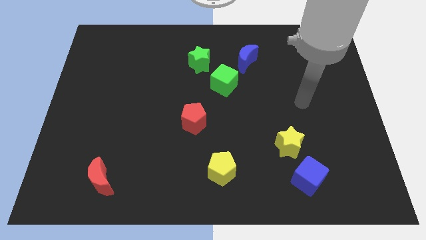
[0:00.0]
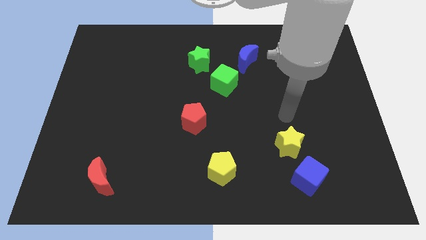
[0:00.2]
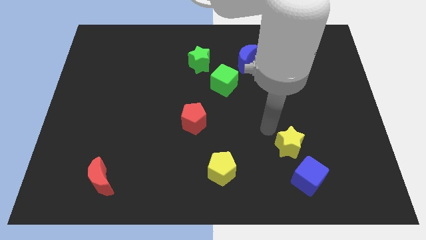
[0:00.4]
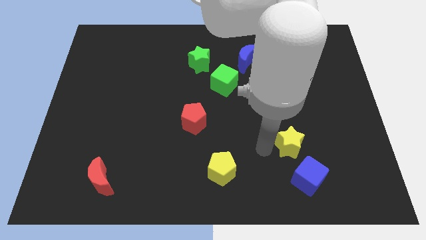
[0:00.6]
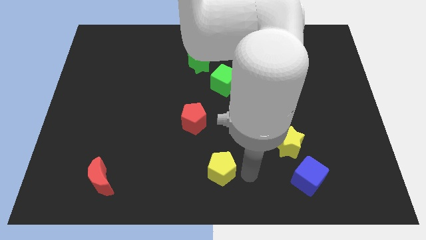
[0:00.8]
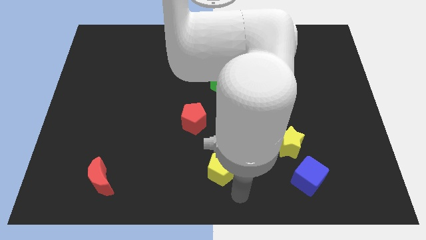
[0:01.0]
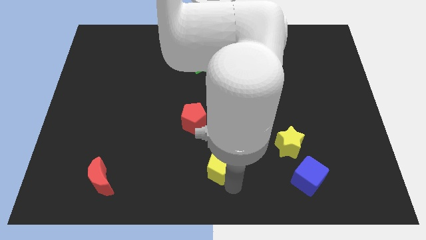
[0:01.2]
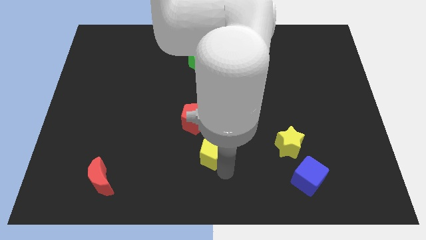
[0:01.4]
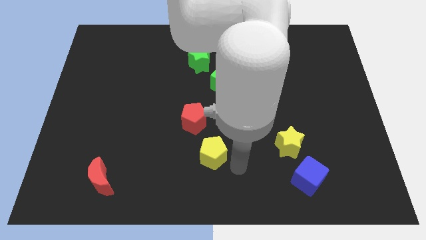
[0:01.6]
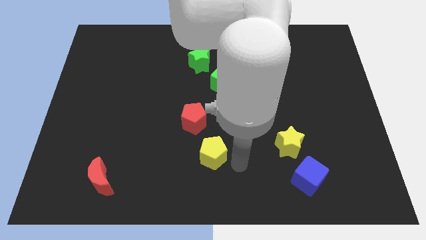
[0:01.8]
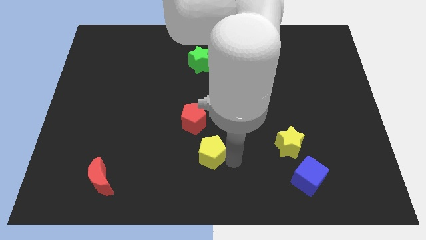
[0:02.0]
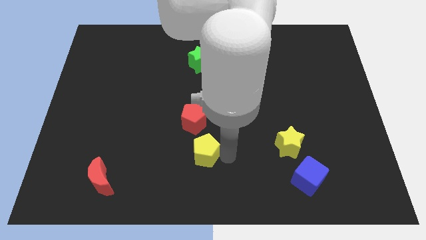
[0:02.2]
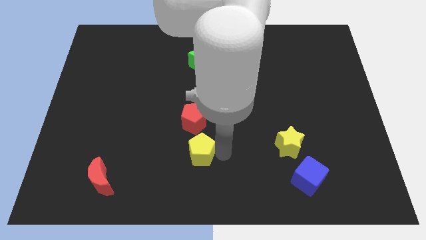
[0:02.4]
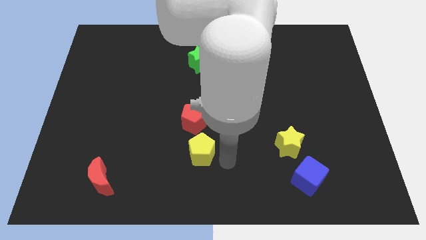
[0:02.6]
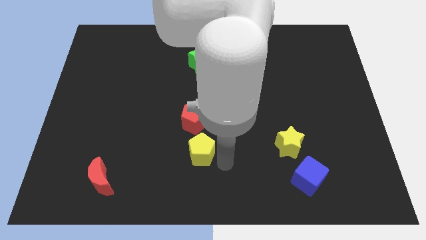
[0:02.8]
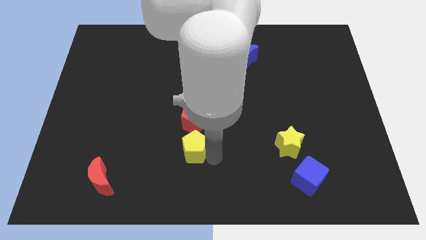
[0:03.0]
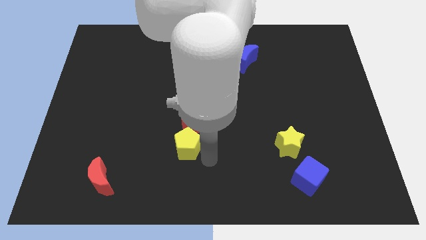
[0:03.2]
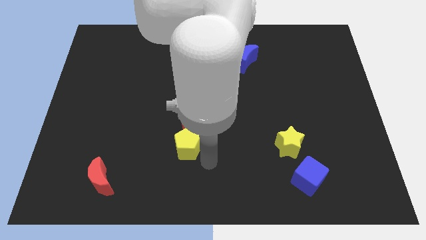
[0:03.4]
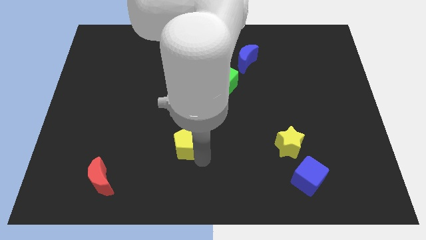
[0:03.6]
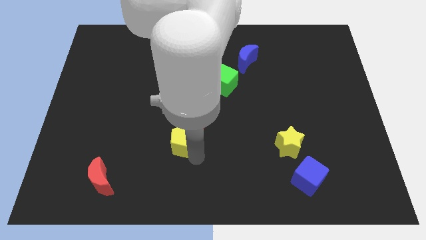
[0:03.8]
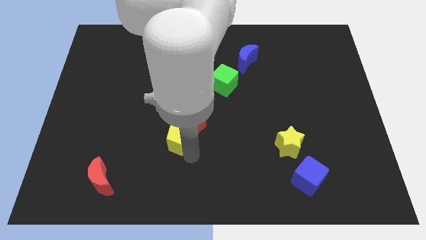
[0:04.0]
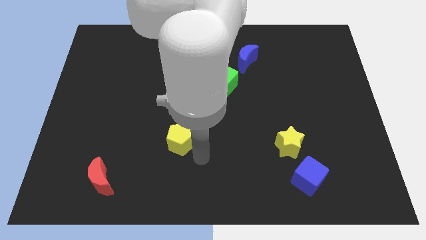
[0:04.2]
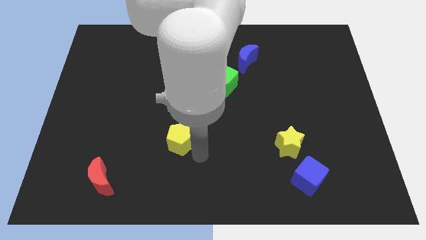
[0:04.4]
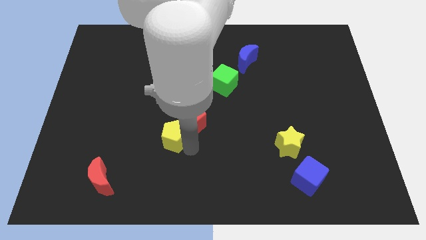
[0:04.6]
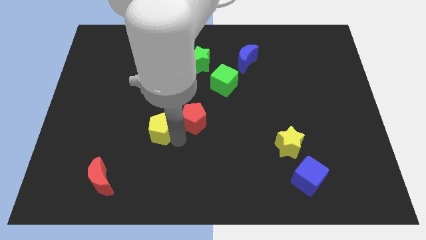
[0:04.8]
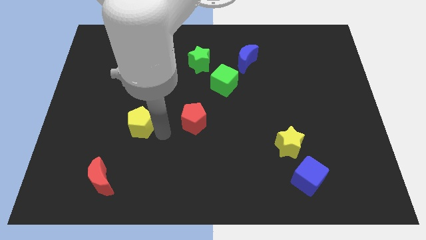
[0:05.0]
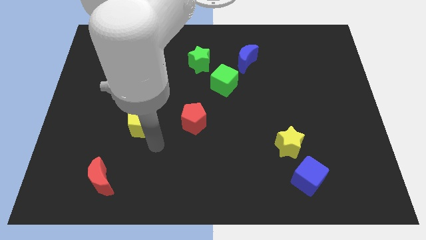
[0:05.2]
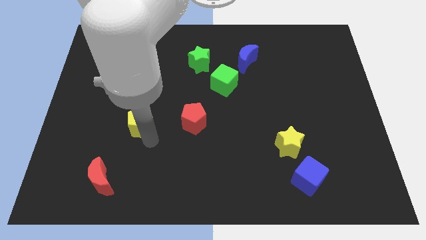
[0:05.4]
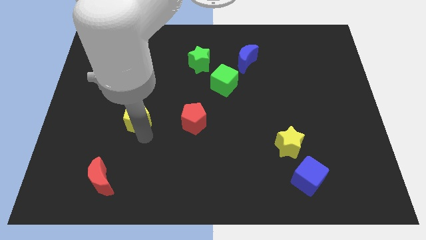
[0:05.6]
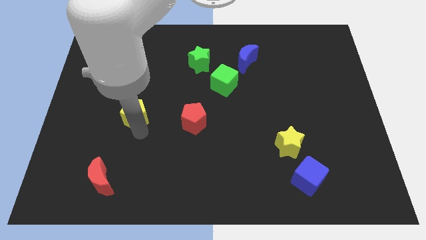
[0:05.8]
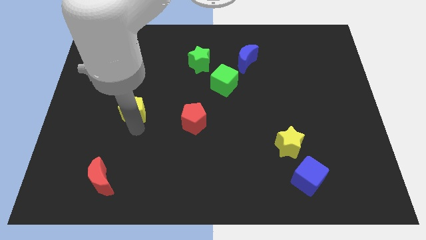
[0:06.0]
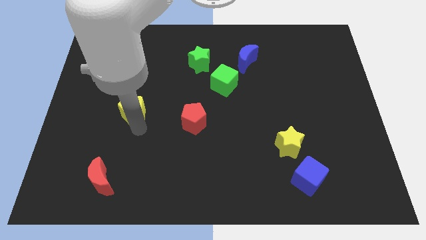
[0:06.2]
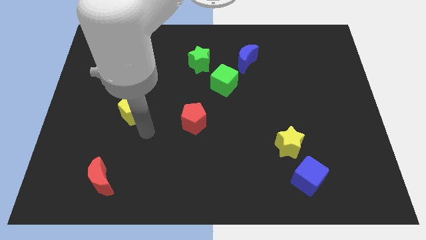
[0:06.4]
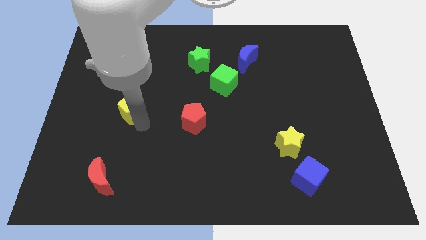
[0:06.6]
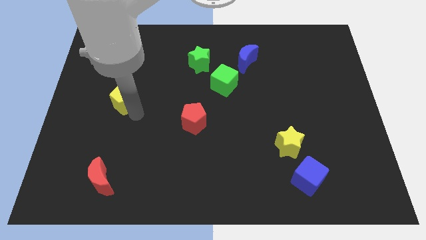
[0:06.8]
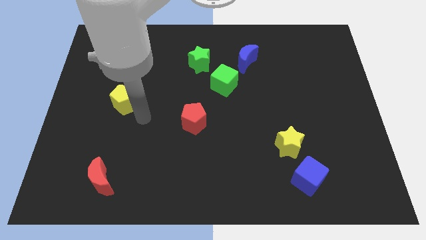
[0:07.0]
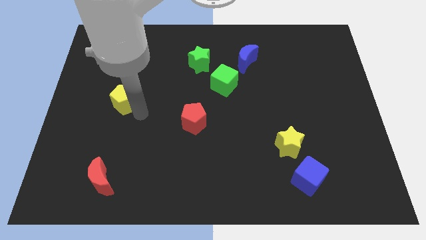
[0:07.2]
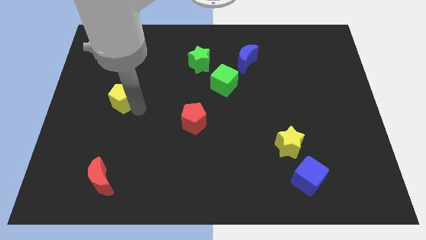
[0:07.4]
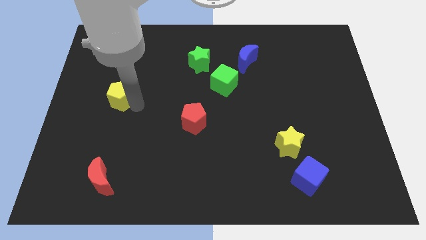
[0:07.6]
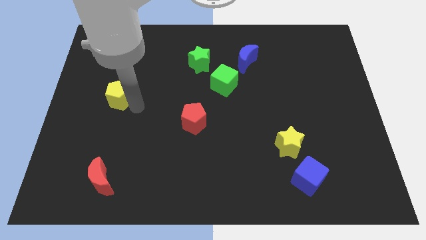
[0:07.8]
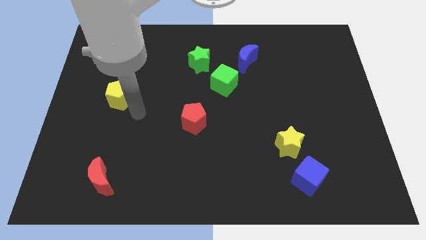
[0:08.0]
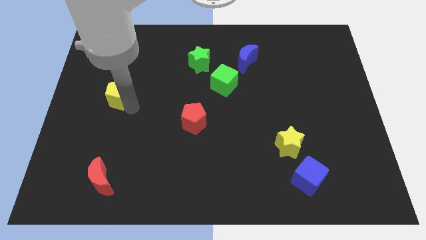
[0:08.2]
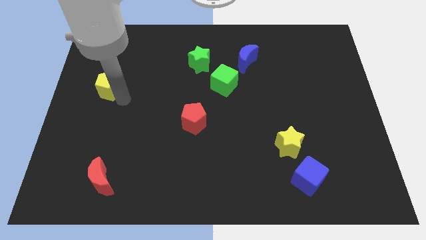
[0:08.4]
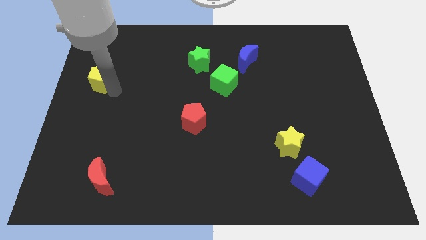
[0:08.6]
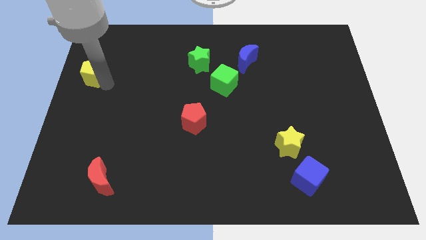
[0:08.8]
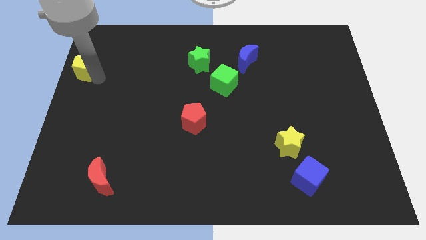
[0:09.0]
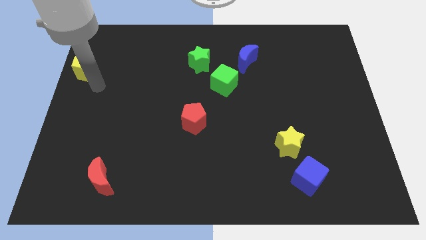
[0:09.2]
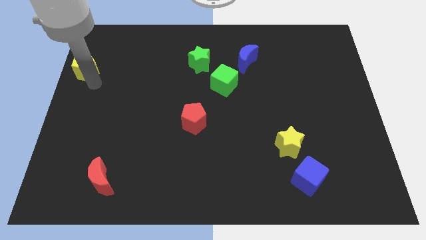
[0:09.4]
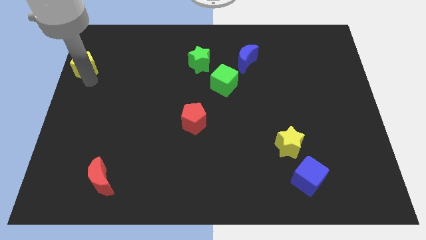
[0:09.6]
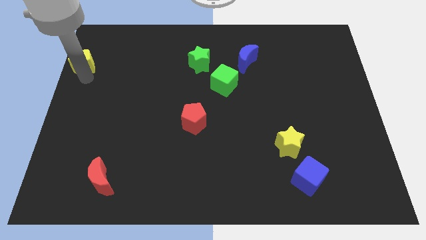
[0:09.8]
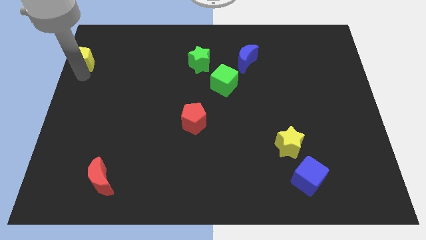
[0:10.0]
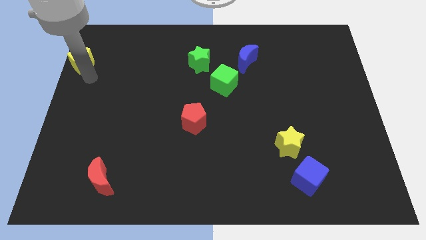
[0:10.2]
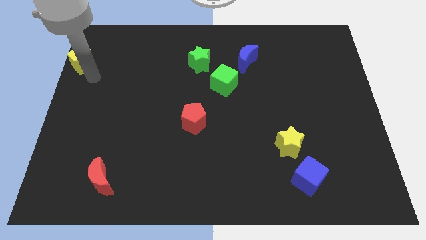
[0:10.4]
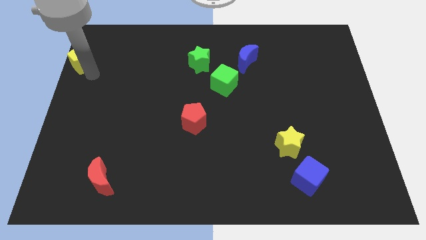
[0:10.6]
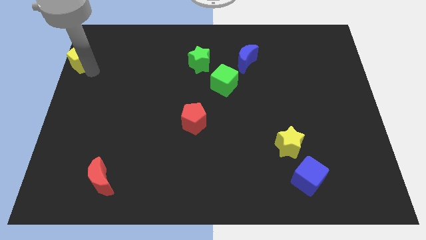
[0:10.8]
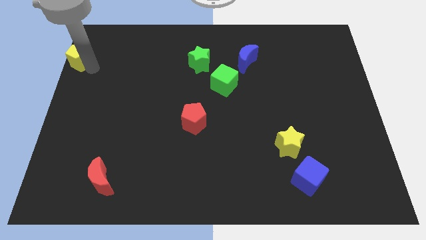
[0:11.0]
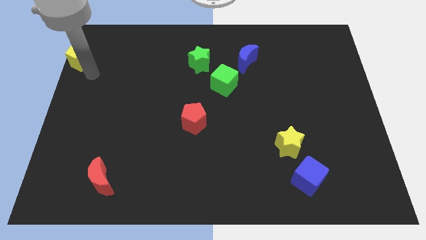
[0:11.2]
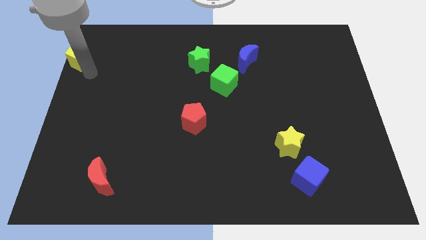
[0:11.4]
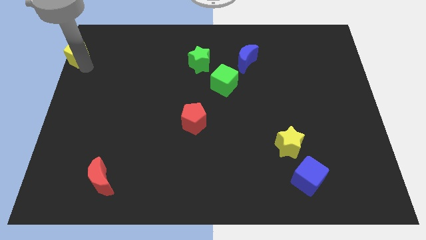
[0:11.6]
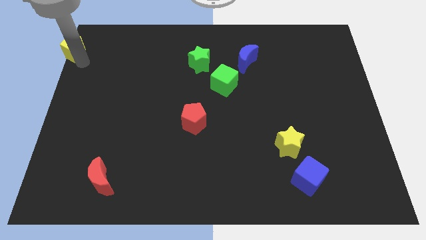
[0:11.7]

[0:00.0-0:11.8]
slide the yellow pentagon to the top left corner

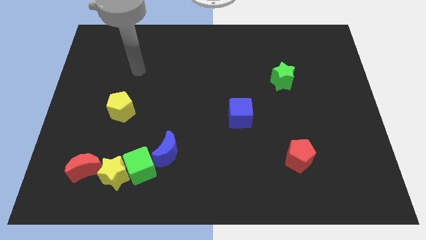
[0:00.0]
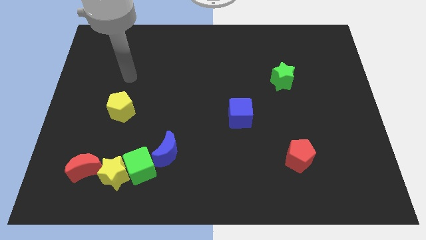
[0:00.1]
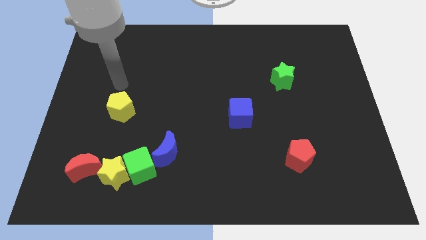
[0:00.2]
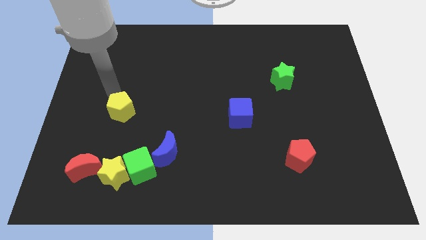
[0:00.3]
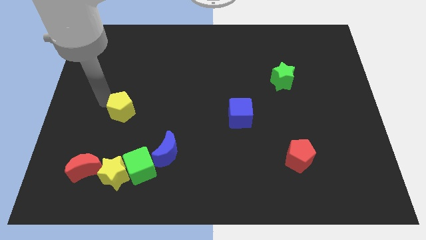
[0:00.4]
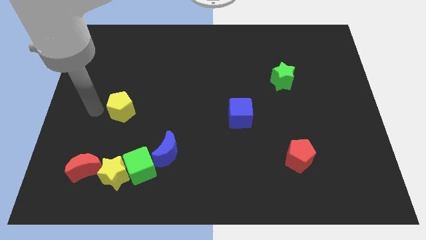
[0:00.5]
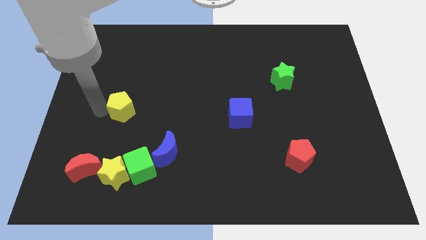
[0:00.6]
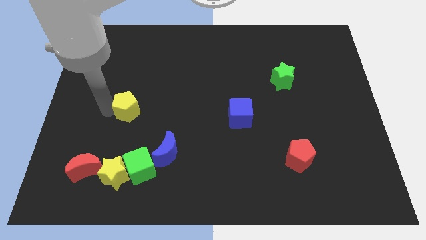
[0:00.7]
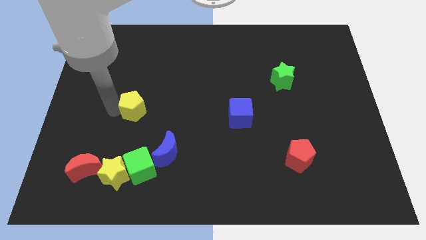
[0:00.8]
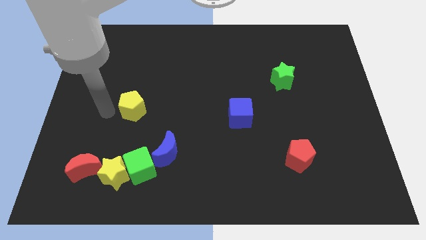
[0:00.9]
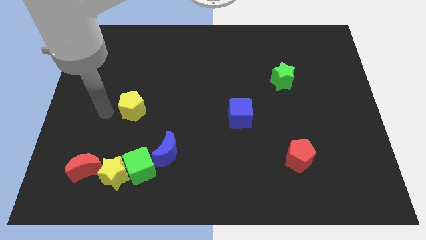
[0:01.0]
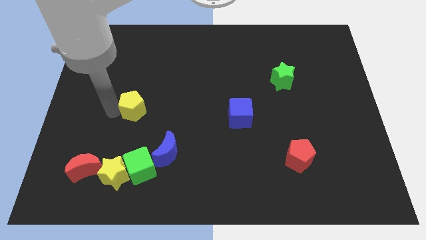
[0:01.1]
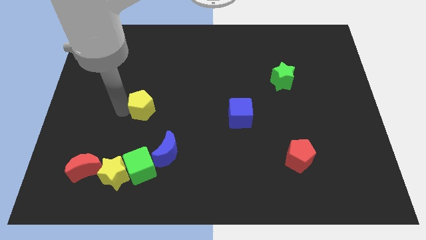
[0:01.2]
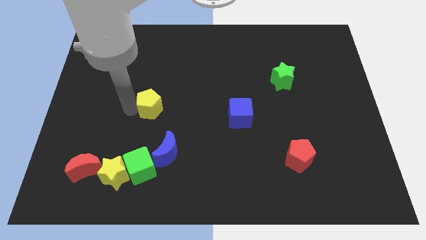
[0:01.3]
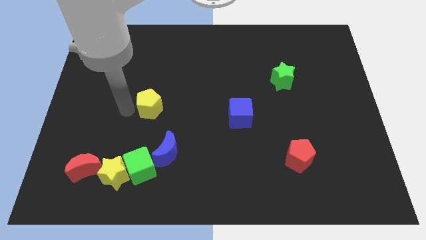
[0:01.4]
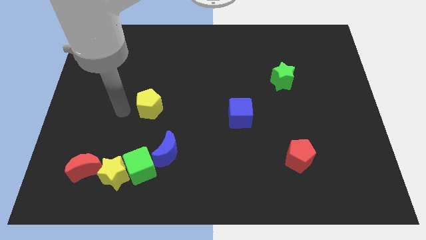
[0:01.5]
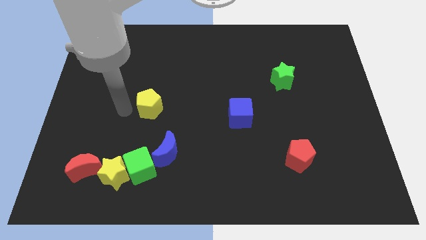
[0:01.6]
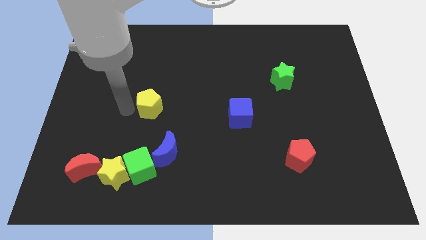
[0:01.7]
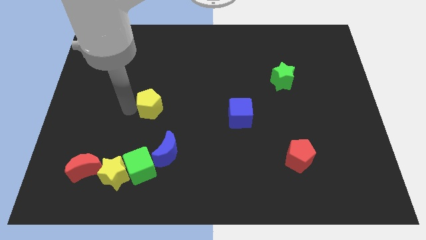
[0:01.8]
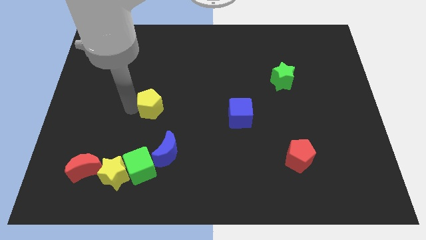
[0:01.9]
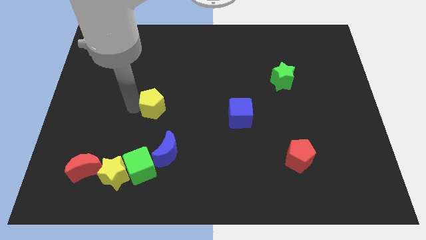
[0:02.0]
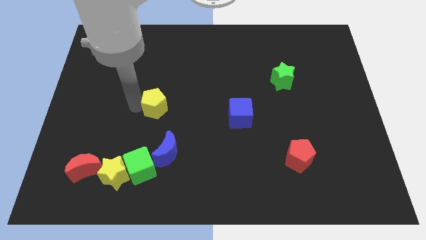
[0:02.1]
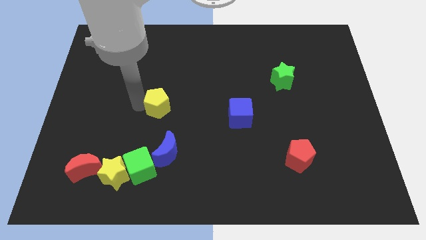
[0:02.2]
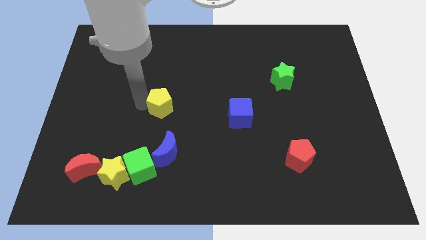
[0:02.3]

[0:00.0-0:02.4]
move the yellow pentagon to the middle
